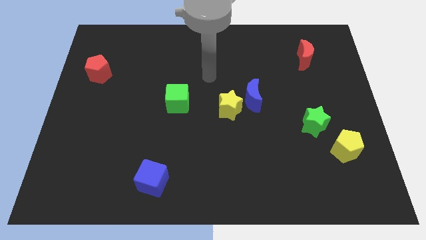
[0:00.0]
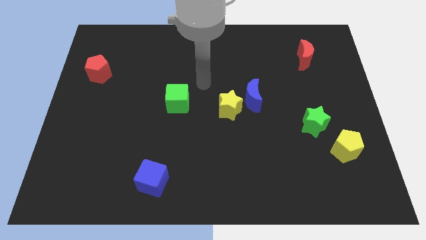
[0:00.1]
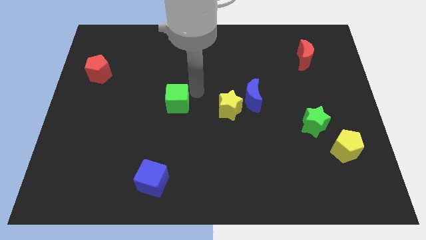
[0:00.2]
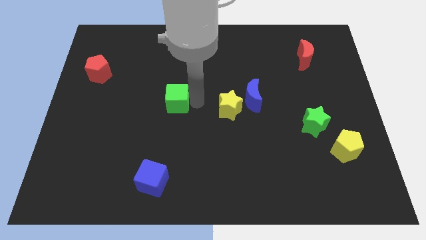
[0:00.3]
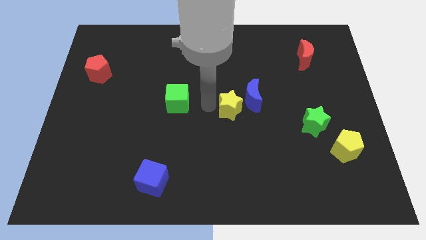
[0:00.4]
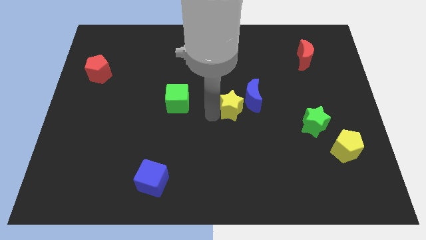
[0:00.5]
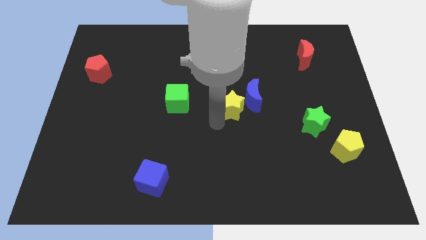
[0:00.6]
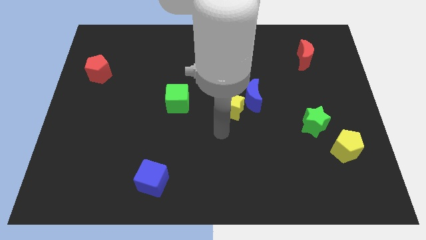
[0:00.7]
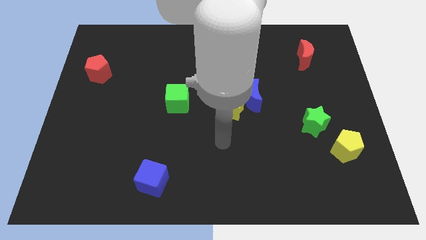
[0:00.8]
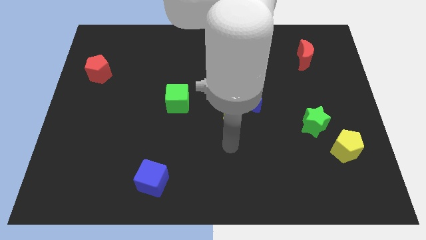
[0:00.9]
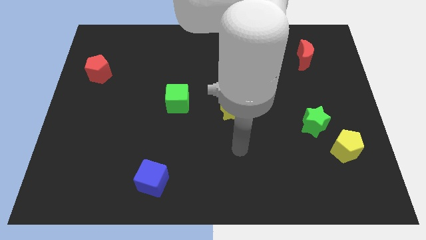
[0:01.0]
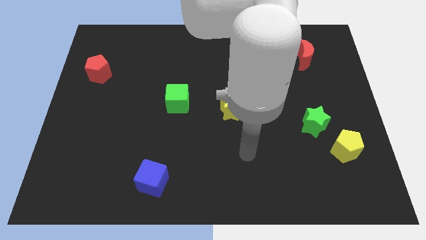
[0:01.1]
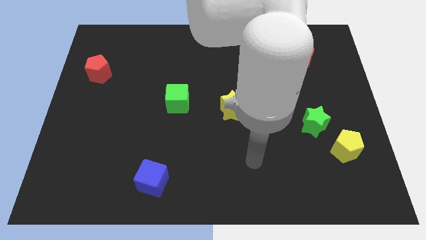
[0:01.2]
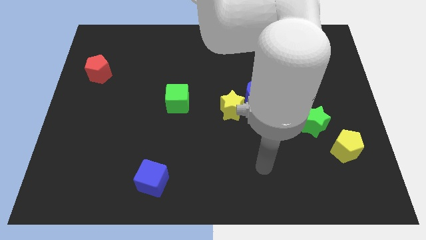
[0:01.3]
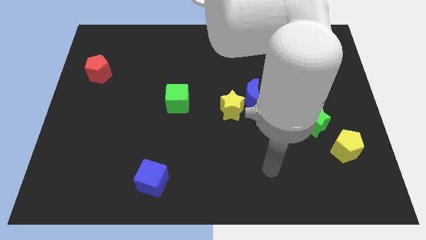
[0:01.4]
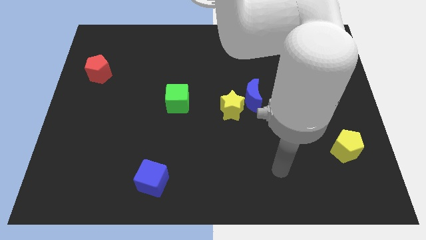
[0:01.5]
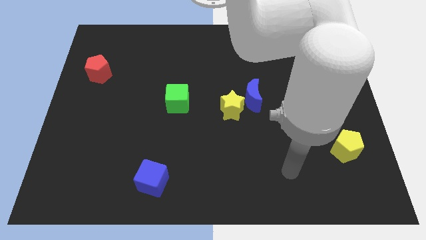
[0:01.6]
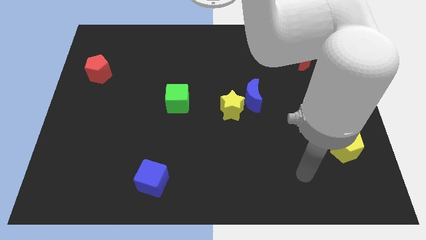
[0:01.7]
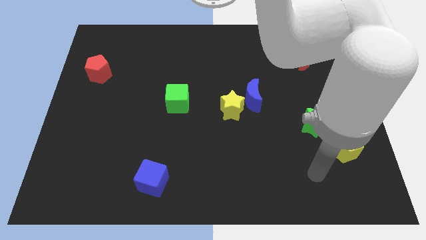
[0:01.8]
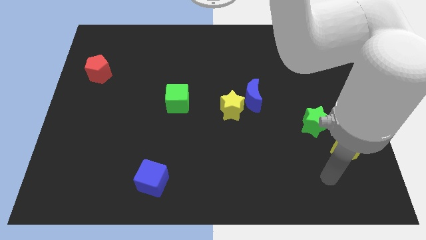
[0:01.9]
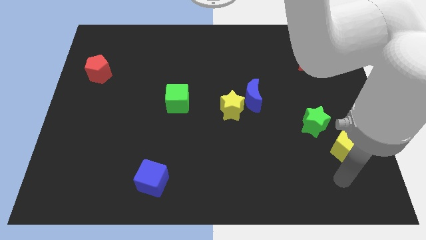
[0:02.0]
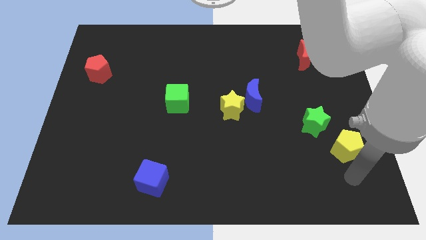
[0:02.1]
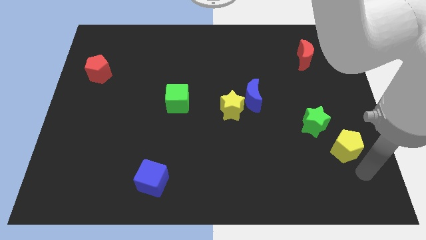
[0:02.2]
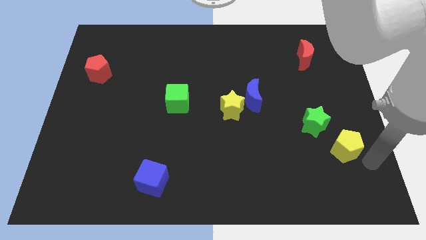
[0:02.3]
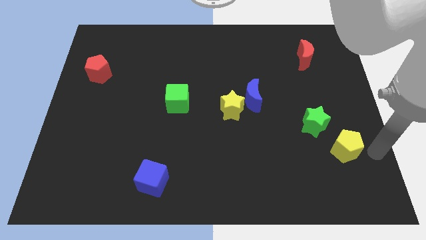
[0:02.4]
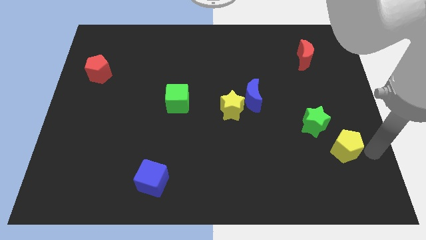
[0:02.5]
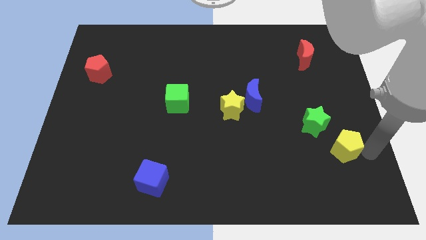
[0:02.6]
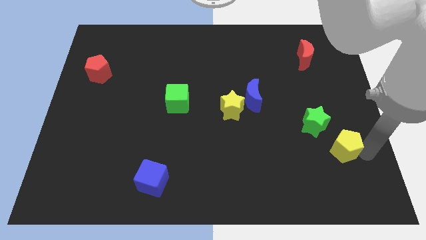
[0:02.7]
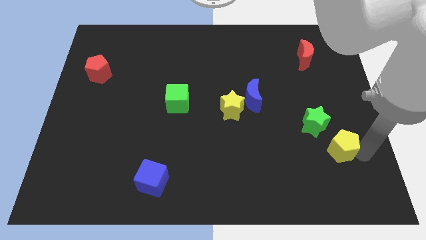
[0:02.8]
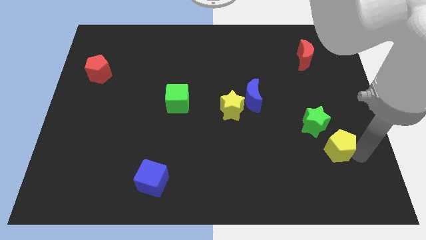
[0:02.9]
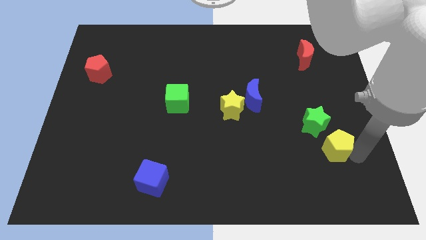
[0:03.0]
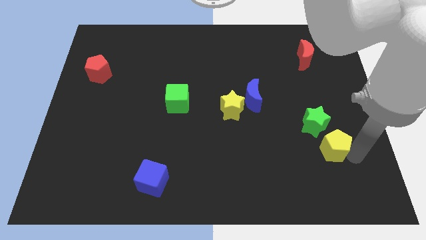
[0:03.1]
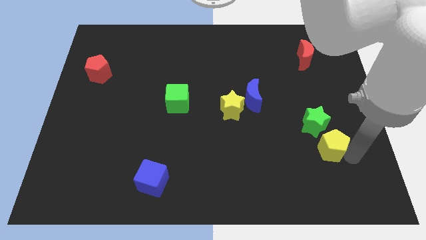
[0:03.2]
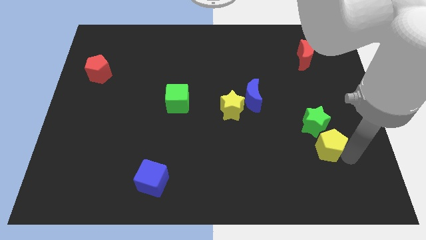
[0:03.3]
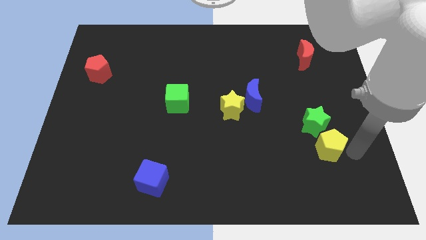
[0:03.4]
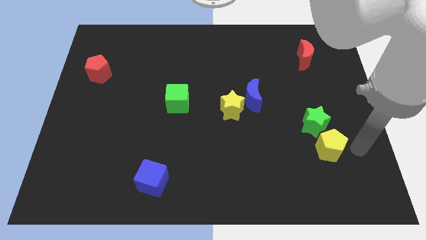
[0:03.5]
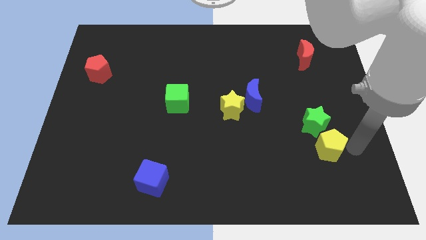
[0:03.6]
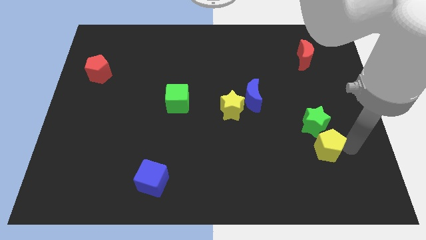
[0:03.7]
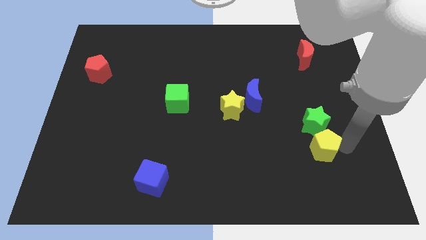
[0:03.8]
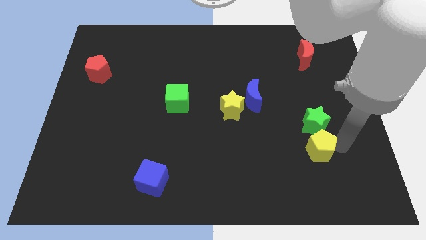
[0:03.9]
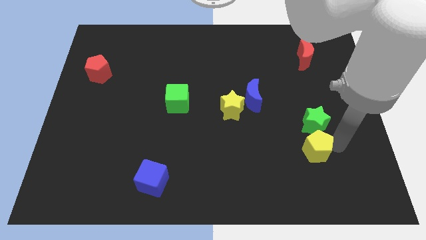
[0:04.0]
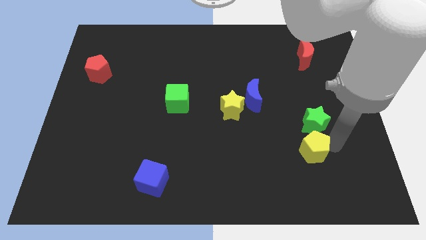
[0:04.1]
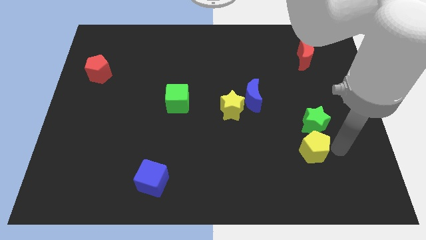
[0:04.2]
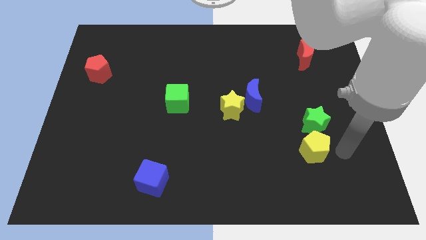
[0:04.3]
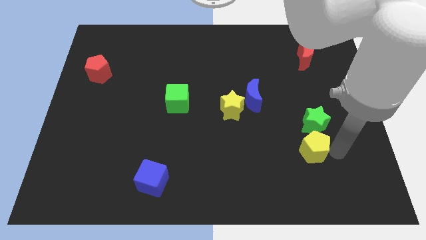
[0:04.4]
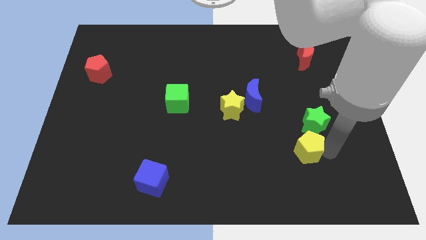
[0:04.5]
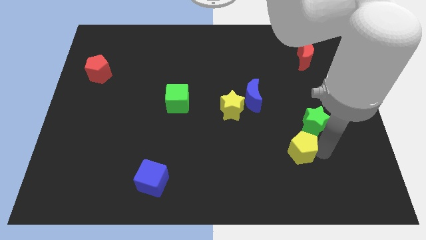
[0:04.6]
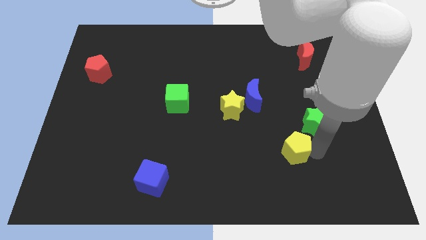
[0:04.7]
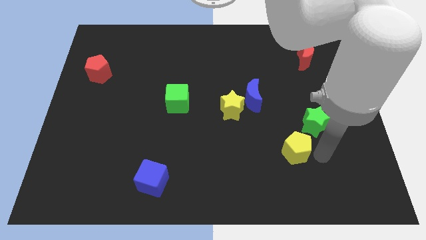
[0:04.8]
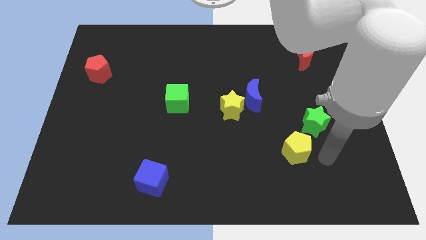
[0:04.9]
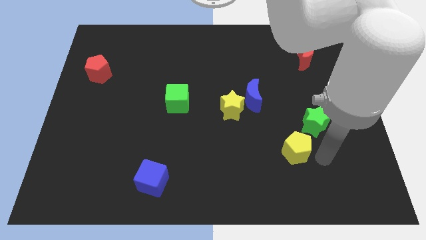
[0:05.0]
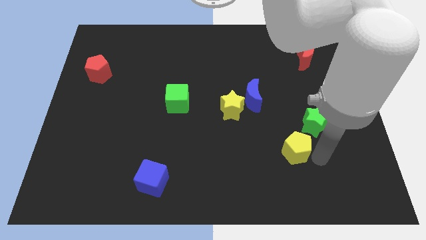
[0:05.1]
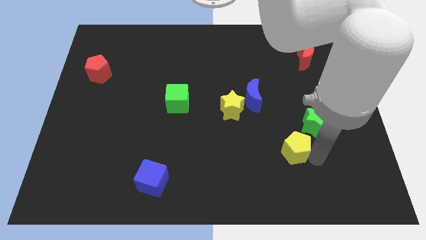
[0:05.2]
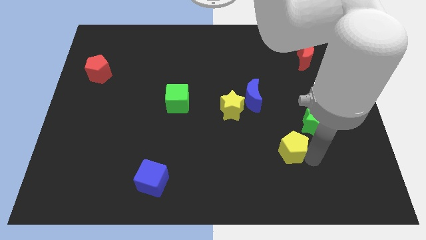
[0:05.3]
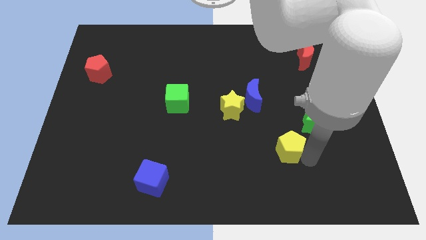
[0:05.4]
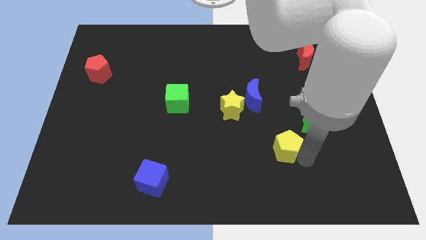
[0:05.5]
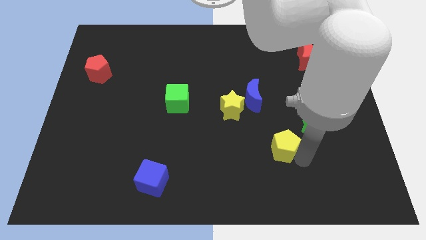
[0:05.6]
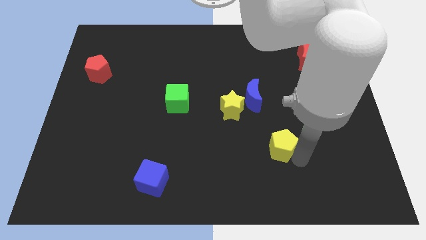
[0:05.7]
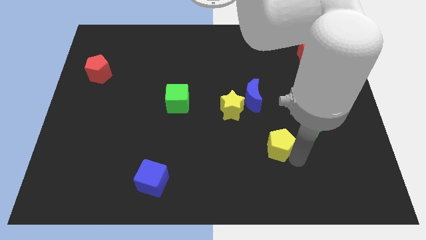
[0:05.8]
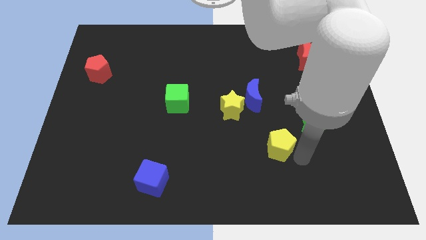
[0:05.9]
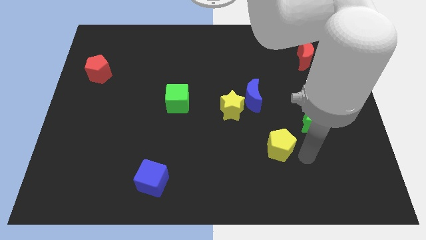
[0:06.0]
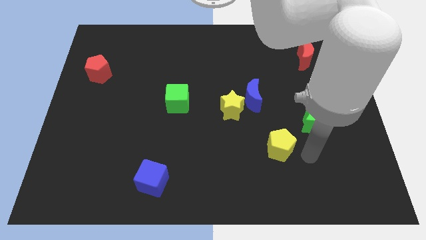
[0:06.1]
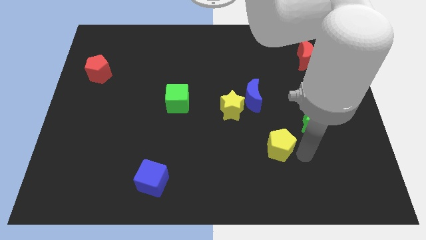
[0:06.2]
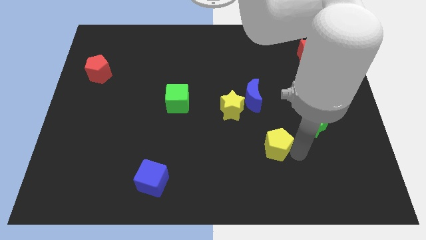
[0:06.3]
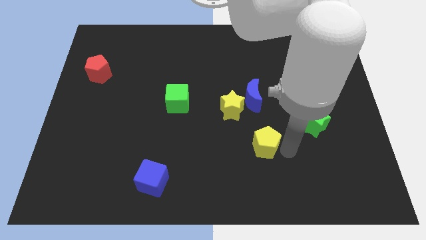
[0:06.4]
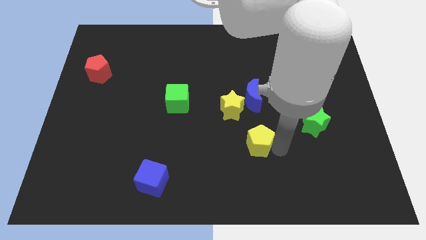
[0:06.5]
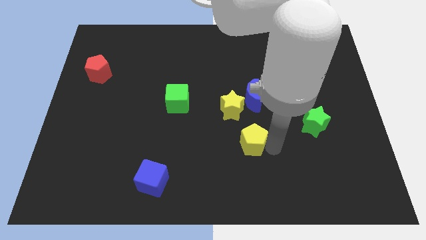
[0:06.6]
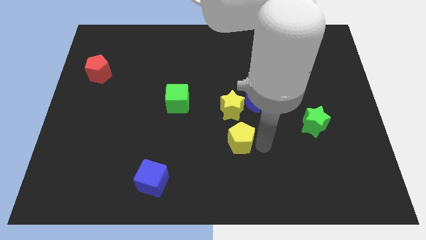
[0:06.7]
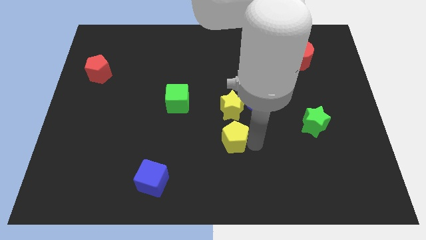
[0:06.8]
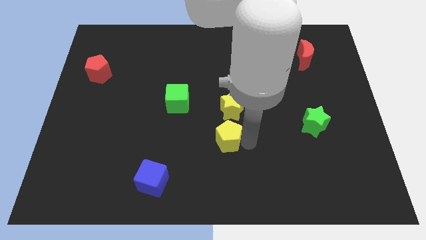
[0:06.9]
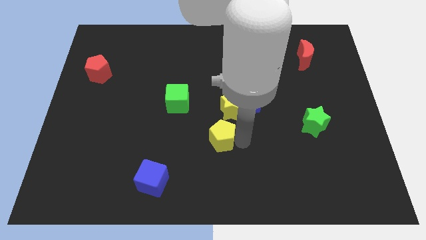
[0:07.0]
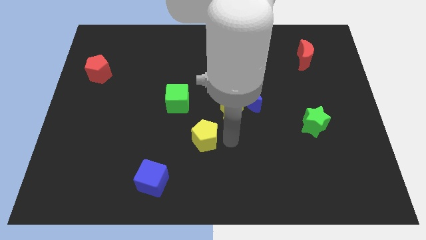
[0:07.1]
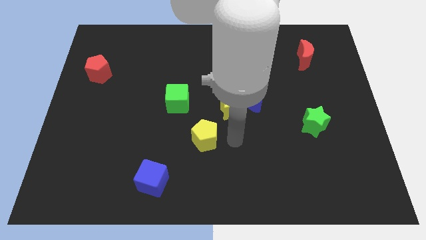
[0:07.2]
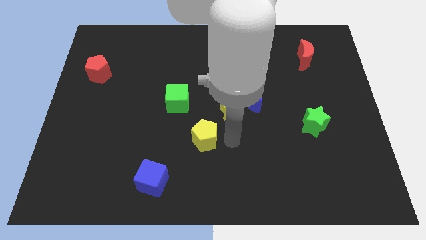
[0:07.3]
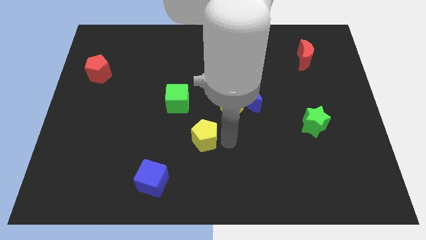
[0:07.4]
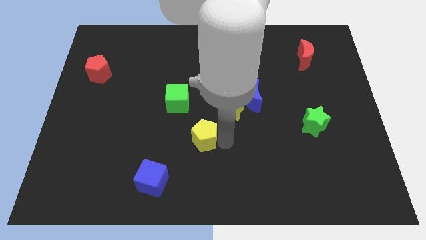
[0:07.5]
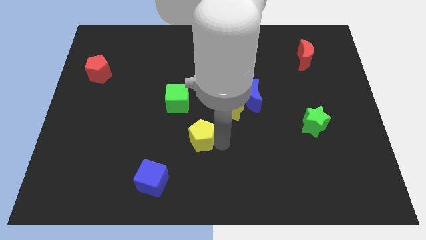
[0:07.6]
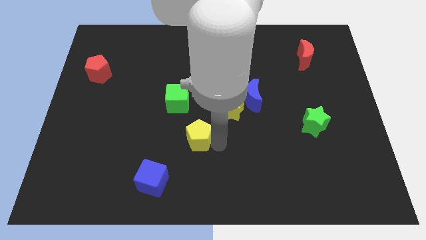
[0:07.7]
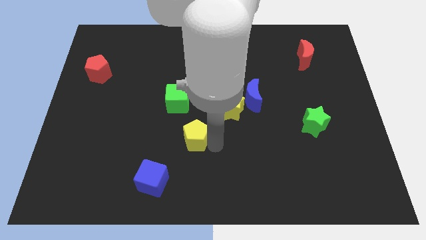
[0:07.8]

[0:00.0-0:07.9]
push the yellow pentagon to the bottom of the green cube
